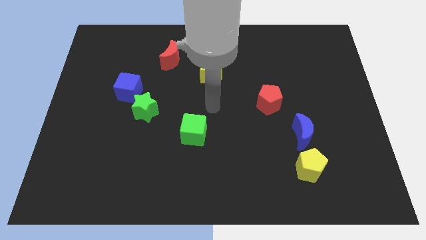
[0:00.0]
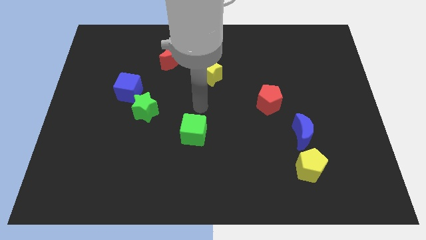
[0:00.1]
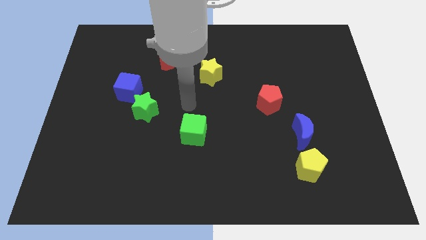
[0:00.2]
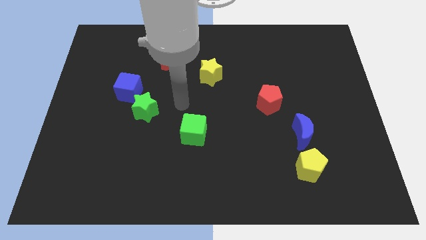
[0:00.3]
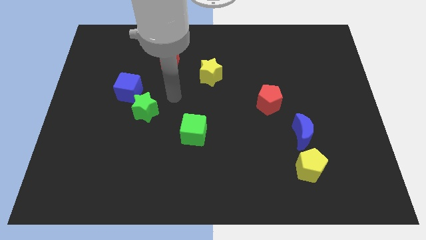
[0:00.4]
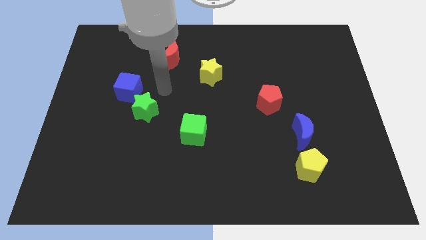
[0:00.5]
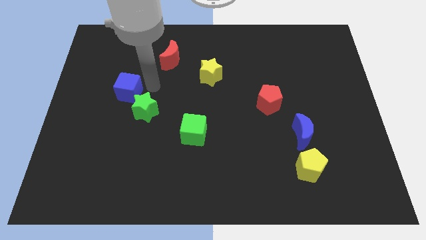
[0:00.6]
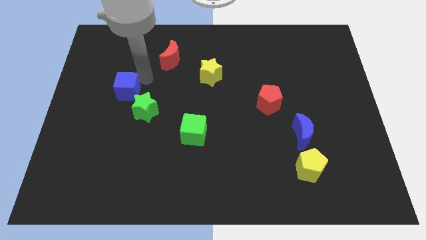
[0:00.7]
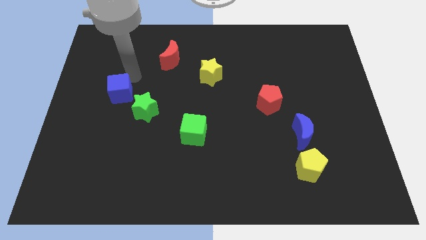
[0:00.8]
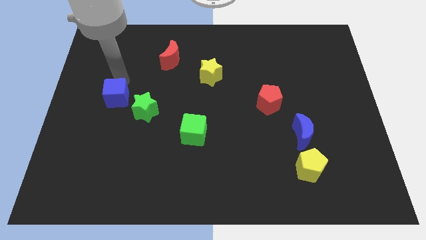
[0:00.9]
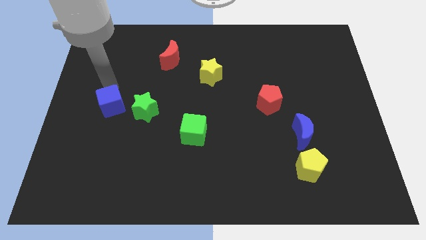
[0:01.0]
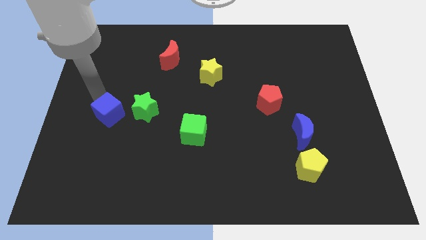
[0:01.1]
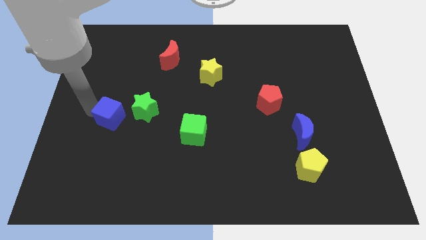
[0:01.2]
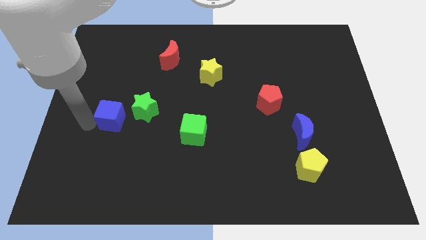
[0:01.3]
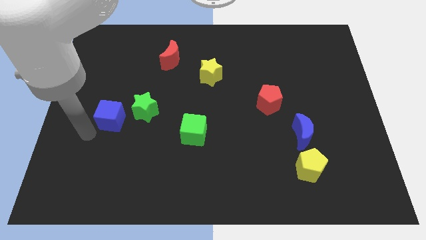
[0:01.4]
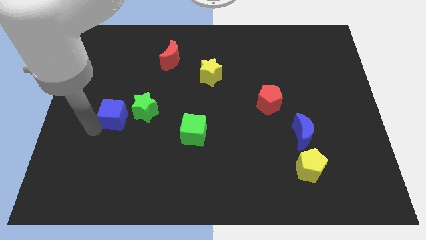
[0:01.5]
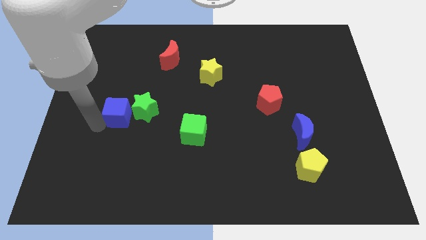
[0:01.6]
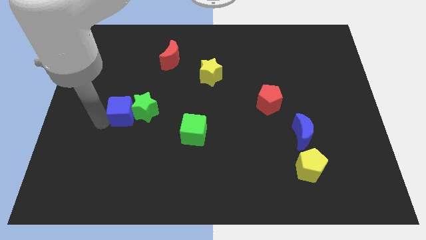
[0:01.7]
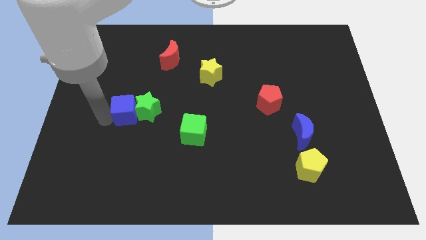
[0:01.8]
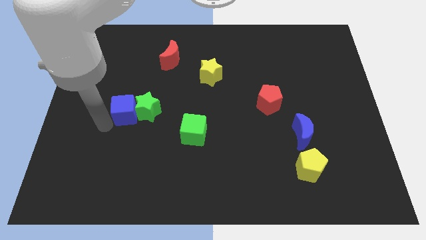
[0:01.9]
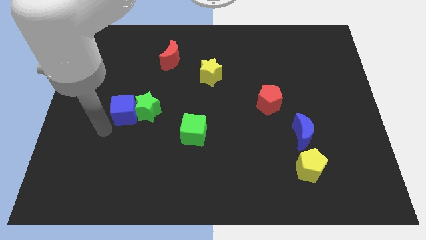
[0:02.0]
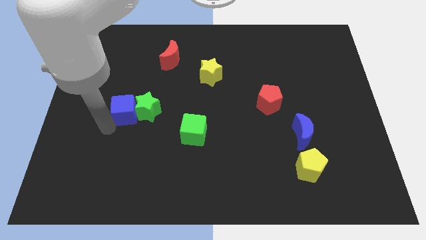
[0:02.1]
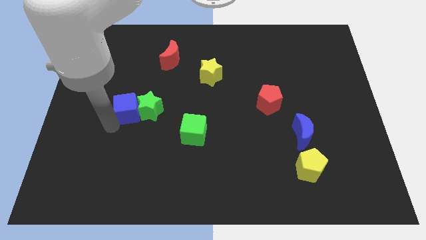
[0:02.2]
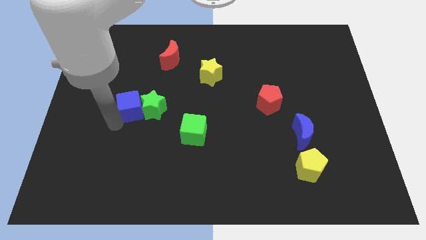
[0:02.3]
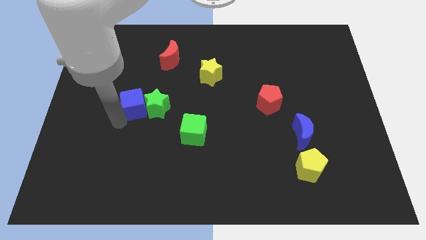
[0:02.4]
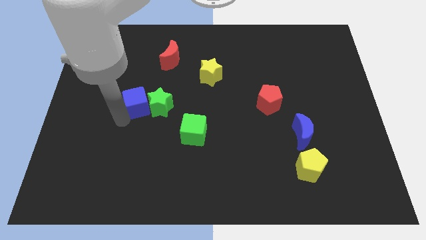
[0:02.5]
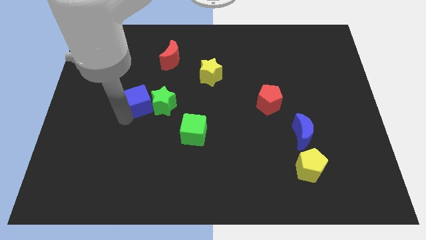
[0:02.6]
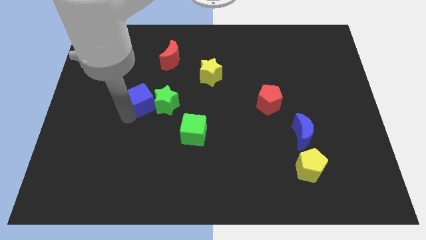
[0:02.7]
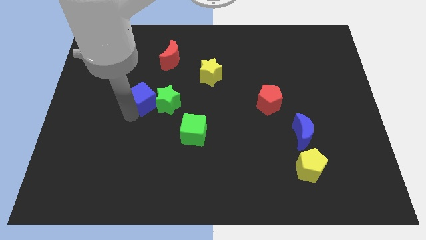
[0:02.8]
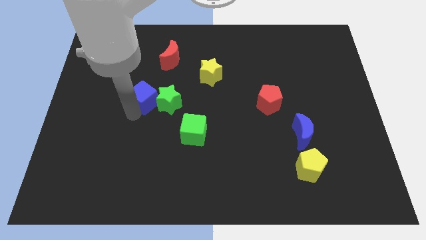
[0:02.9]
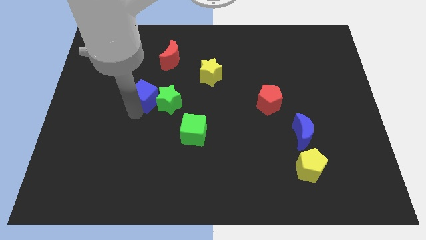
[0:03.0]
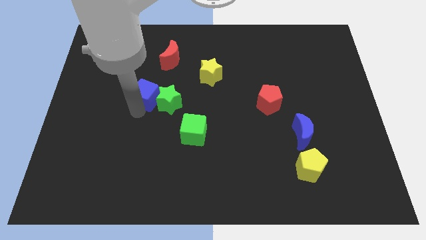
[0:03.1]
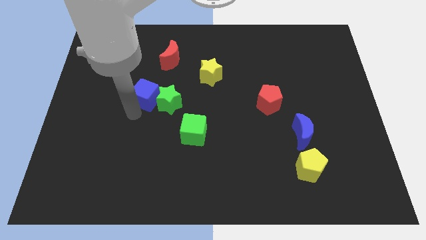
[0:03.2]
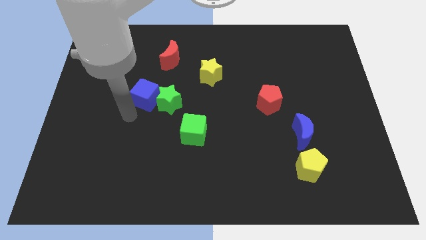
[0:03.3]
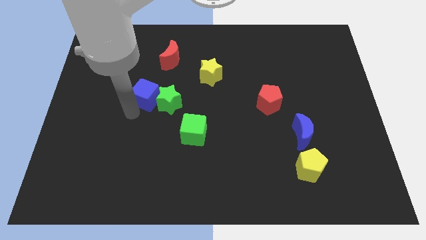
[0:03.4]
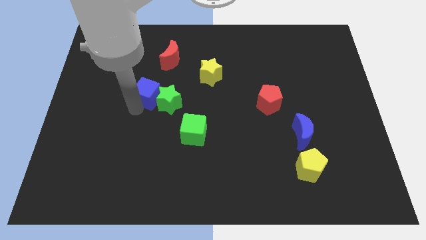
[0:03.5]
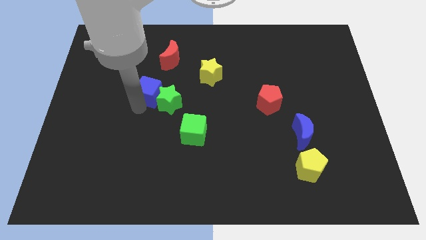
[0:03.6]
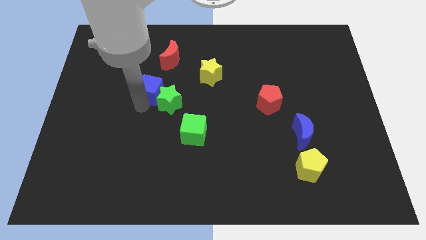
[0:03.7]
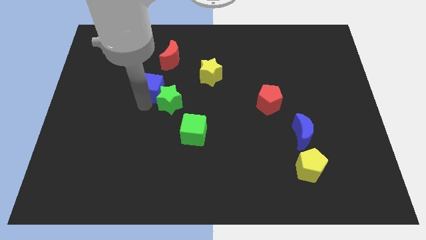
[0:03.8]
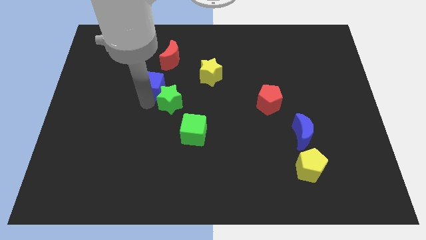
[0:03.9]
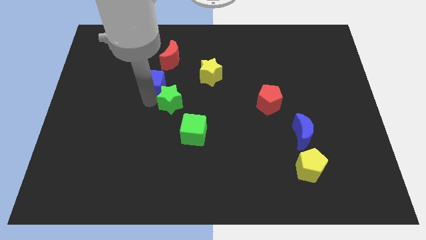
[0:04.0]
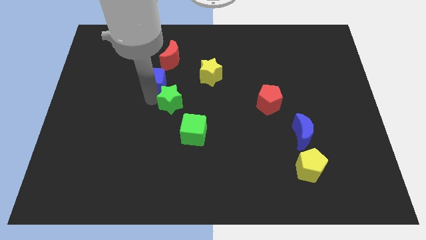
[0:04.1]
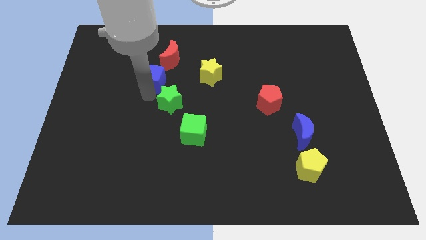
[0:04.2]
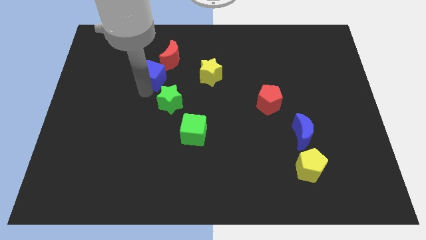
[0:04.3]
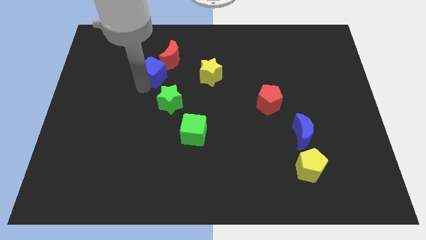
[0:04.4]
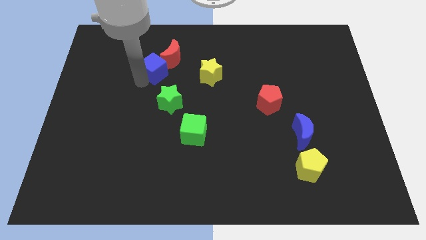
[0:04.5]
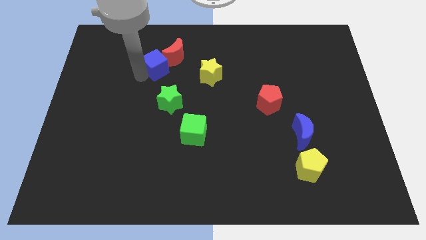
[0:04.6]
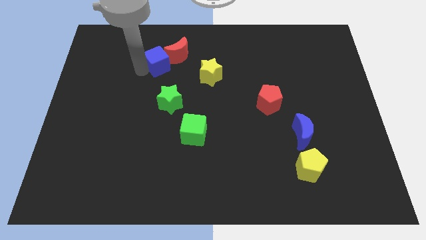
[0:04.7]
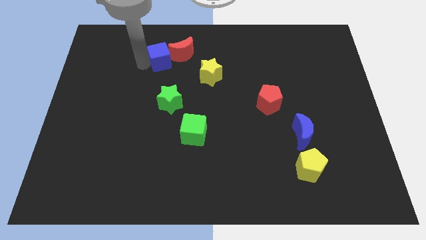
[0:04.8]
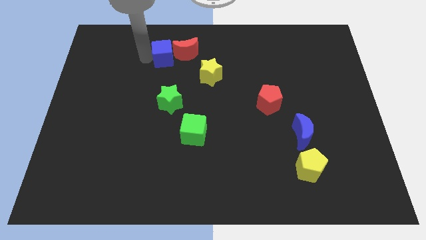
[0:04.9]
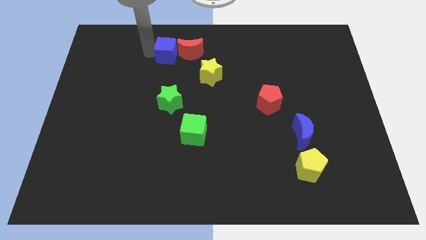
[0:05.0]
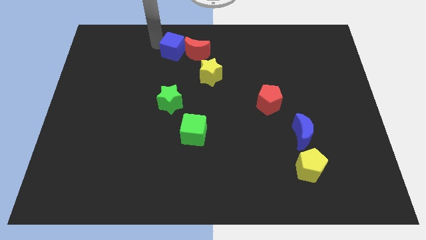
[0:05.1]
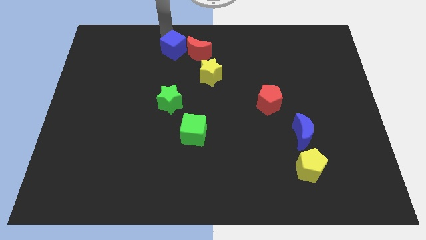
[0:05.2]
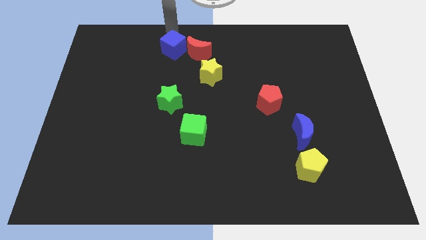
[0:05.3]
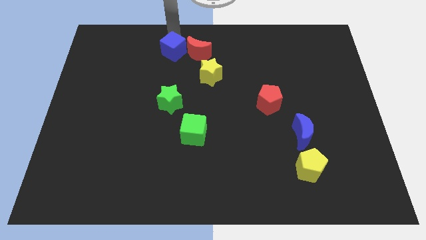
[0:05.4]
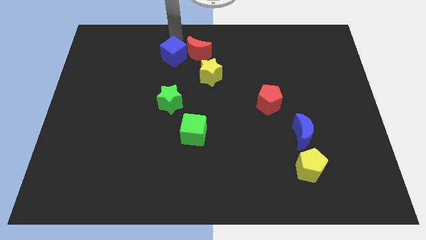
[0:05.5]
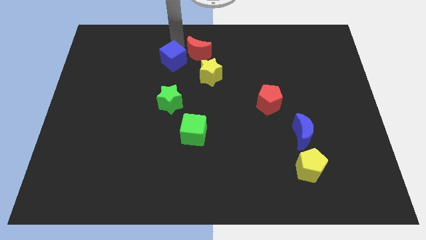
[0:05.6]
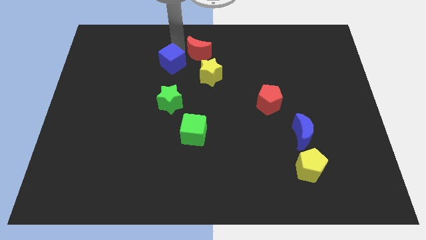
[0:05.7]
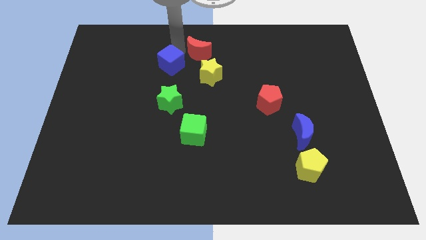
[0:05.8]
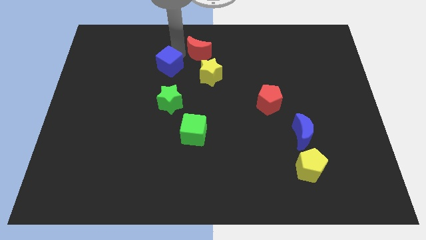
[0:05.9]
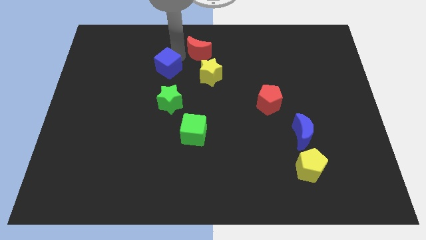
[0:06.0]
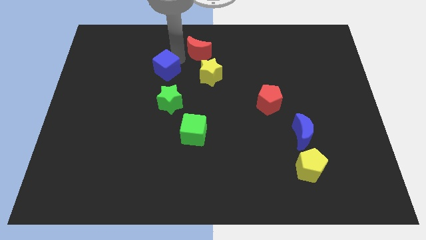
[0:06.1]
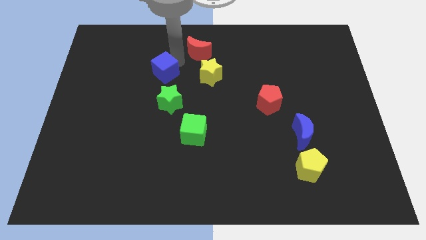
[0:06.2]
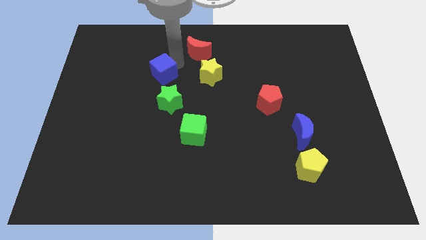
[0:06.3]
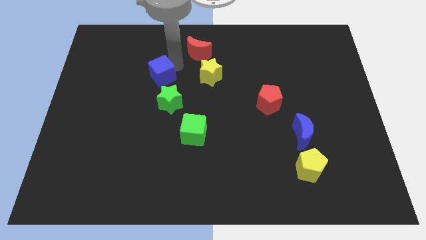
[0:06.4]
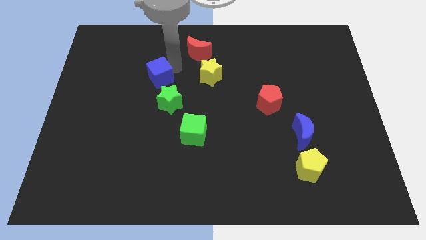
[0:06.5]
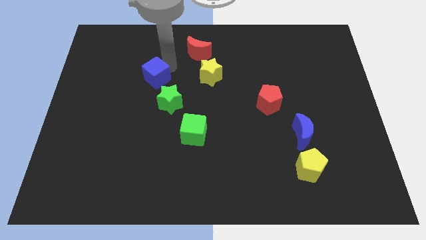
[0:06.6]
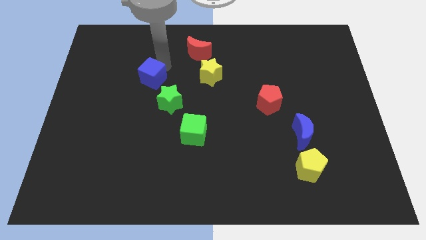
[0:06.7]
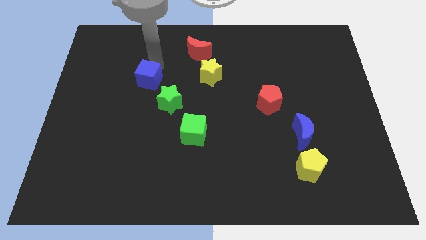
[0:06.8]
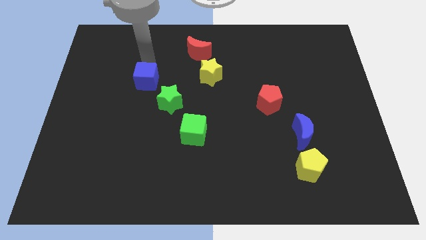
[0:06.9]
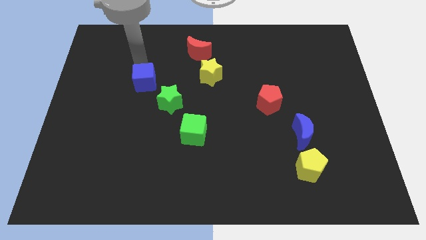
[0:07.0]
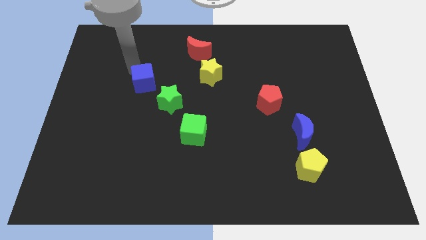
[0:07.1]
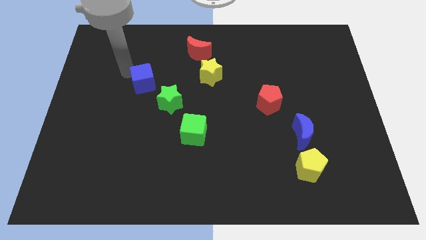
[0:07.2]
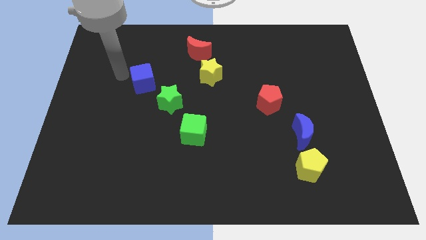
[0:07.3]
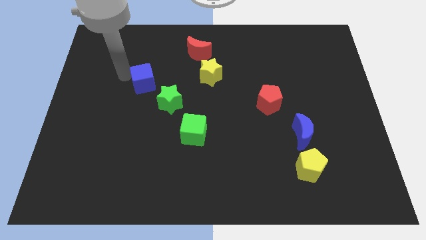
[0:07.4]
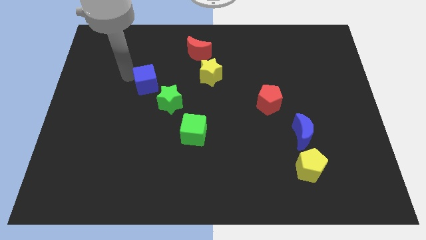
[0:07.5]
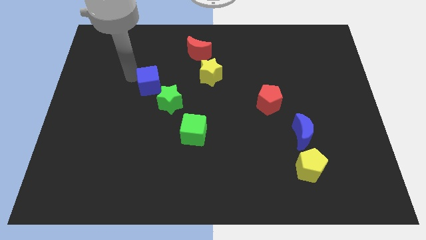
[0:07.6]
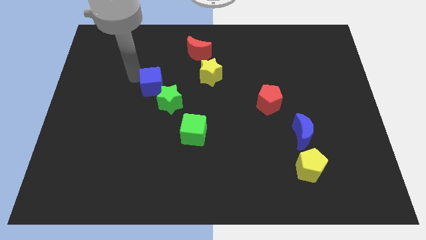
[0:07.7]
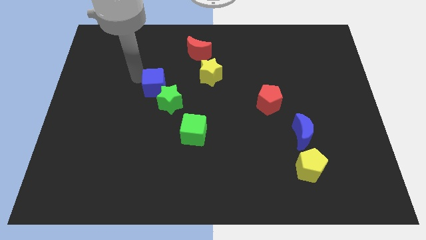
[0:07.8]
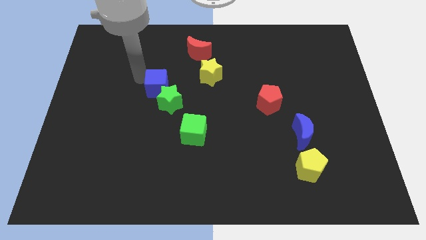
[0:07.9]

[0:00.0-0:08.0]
slightly slide the blue cube to the right

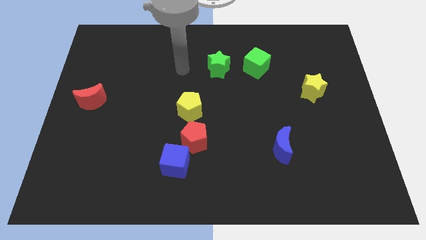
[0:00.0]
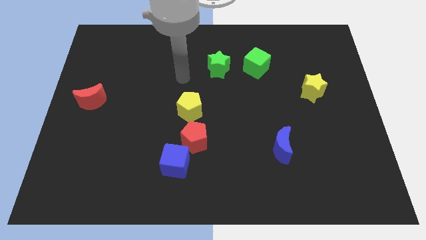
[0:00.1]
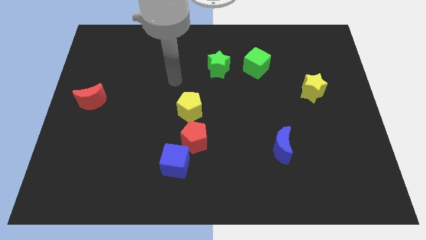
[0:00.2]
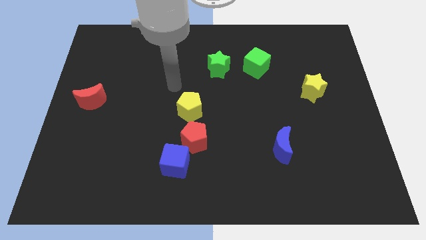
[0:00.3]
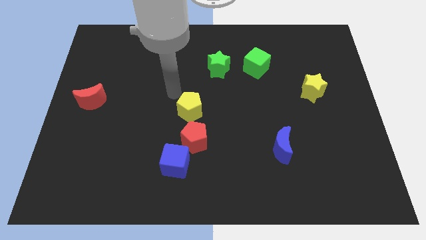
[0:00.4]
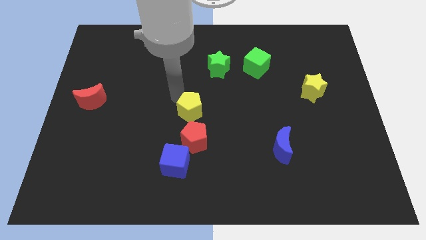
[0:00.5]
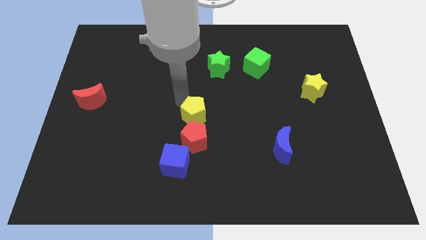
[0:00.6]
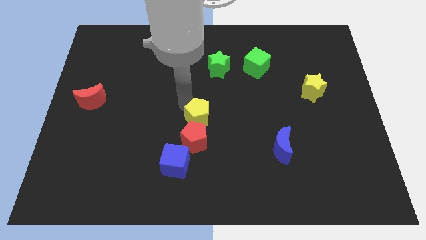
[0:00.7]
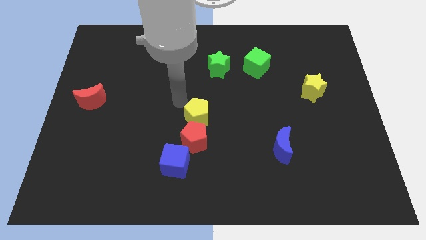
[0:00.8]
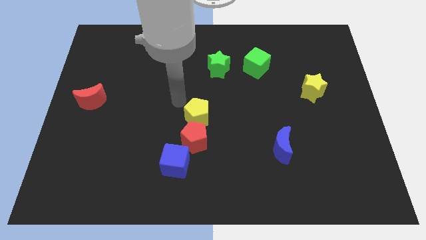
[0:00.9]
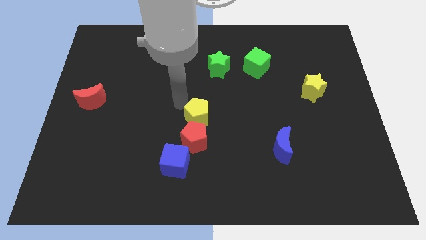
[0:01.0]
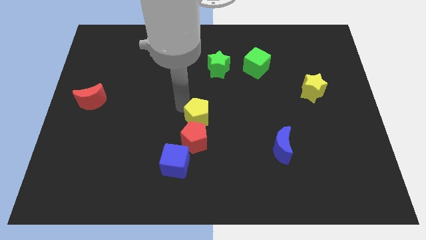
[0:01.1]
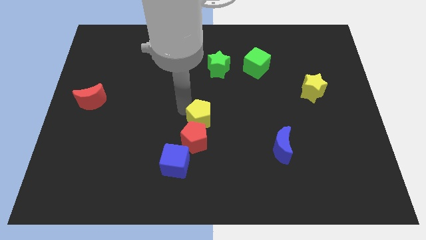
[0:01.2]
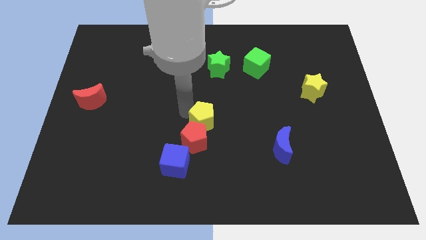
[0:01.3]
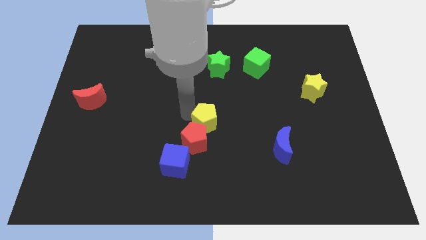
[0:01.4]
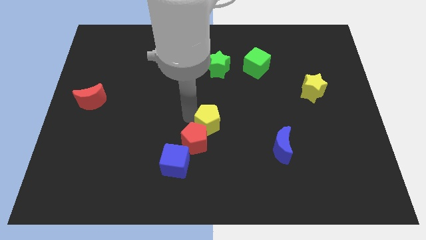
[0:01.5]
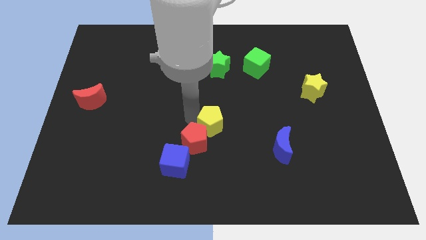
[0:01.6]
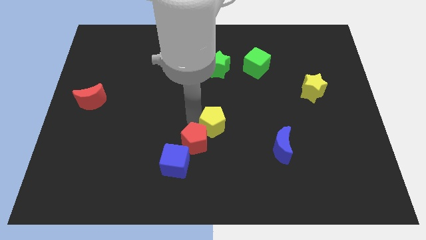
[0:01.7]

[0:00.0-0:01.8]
move the yellow pentagon down and then right slightly
